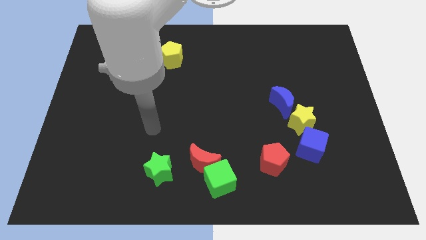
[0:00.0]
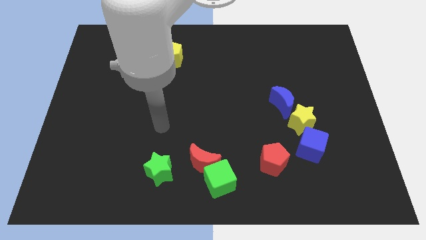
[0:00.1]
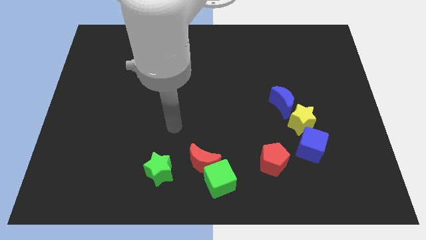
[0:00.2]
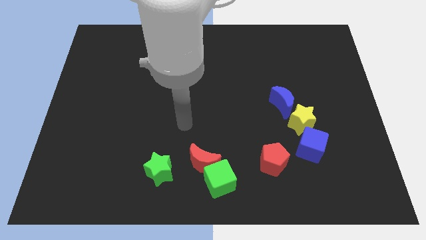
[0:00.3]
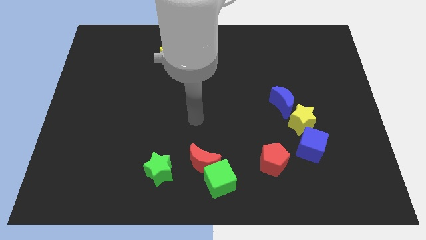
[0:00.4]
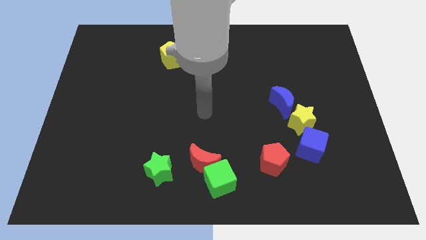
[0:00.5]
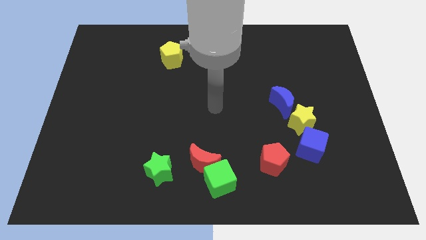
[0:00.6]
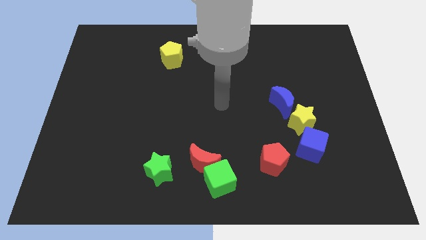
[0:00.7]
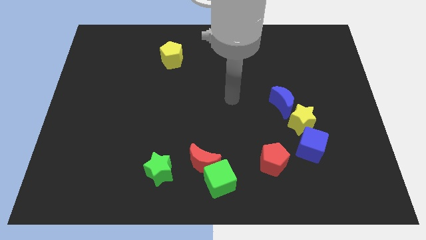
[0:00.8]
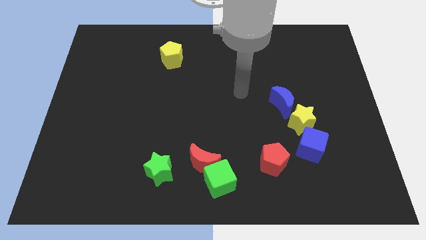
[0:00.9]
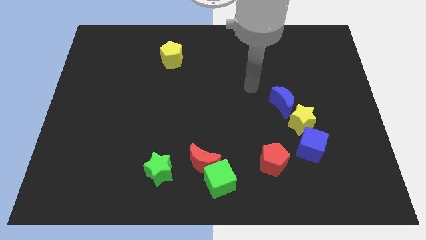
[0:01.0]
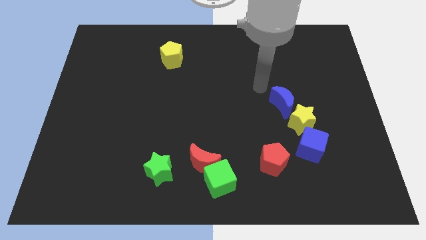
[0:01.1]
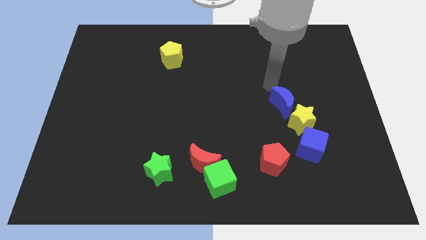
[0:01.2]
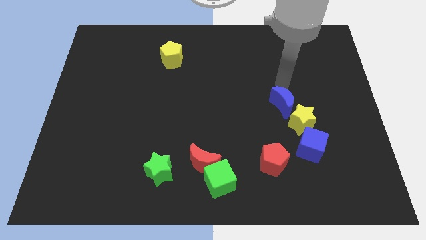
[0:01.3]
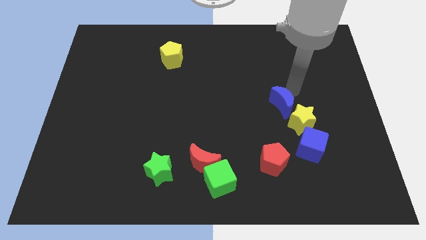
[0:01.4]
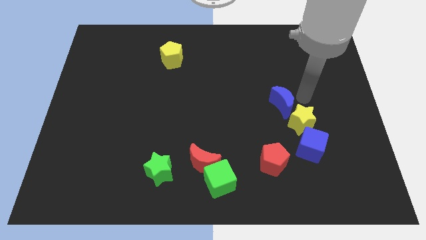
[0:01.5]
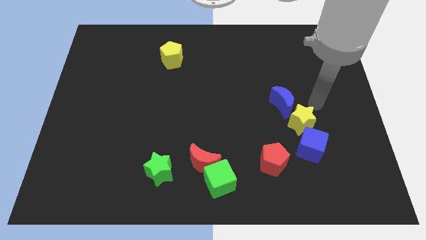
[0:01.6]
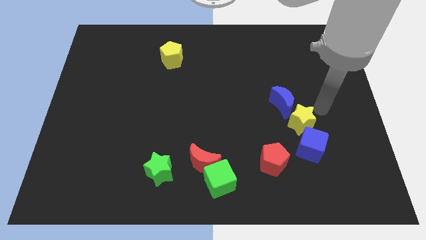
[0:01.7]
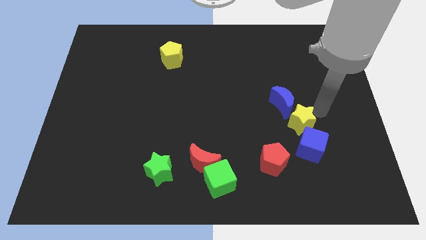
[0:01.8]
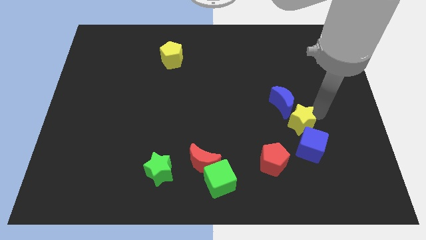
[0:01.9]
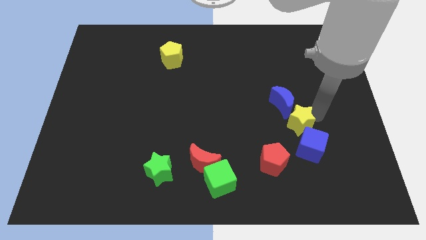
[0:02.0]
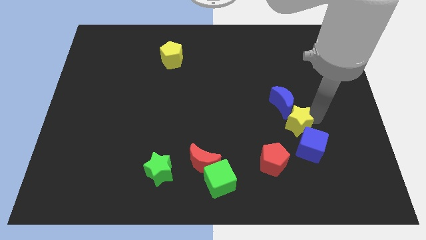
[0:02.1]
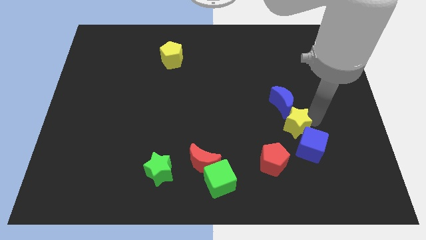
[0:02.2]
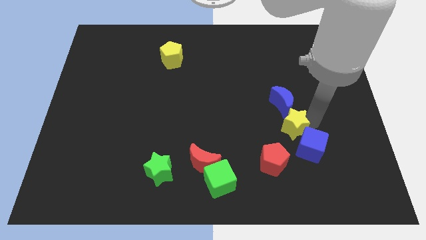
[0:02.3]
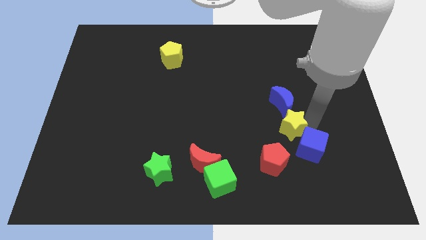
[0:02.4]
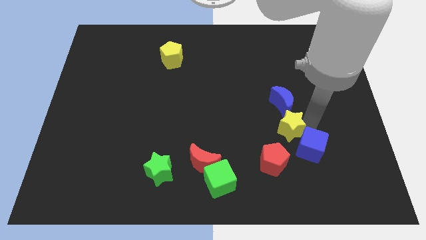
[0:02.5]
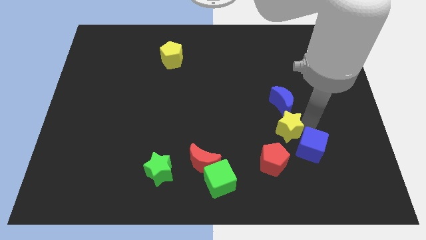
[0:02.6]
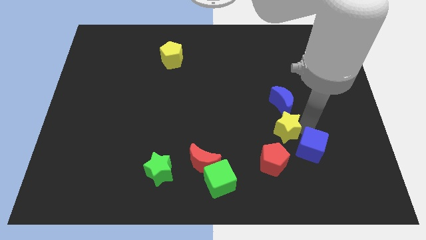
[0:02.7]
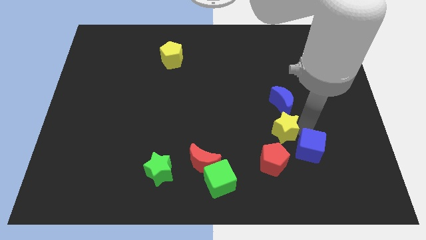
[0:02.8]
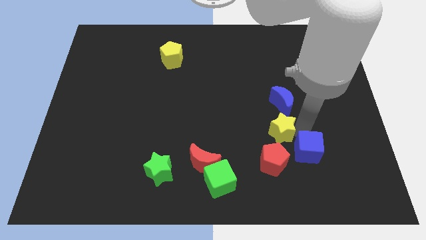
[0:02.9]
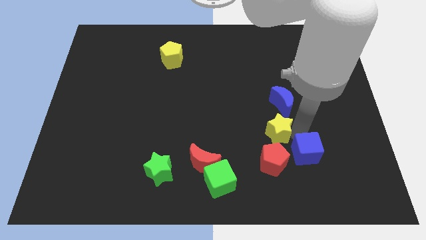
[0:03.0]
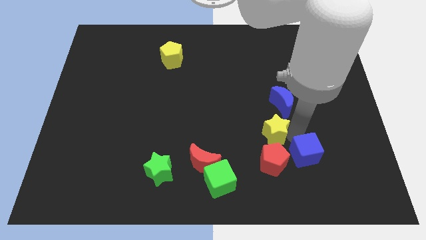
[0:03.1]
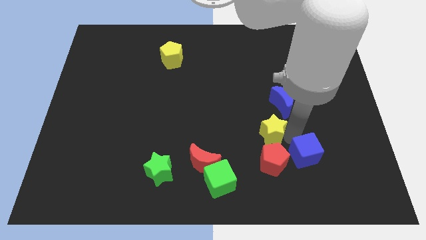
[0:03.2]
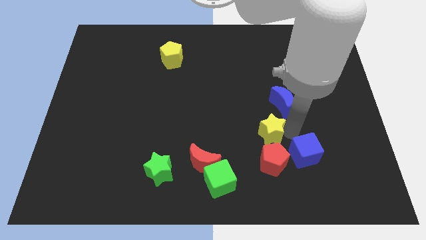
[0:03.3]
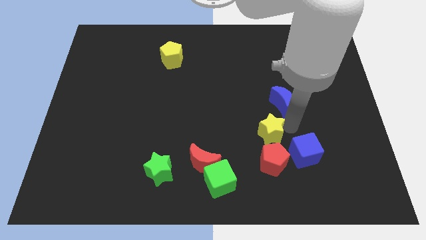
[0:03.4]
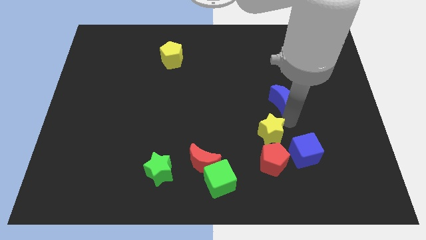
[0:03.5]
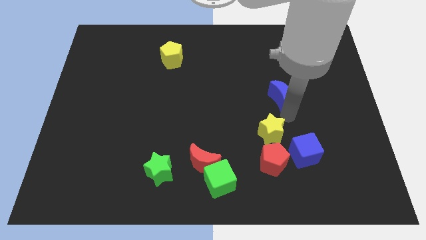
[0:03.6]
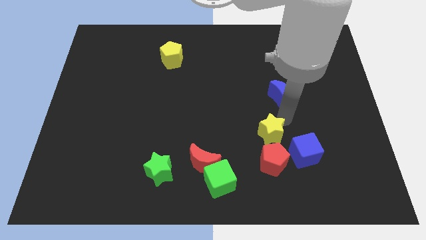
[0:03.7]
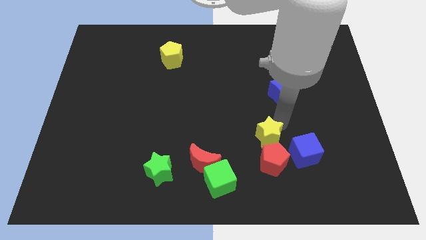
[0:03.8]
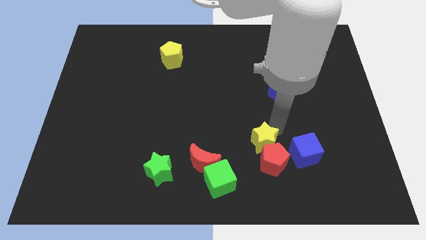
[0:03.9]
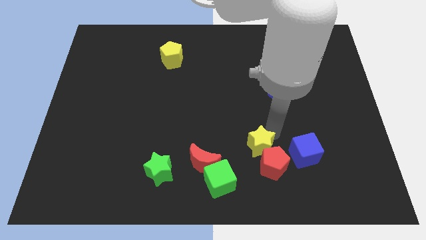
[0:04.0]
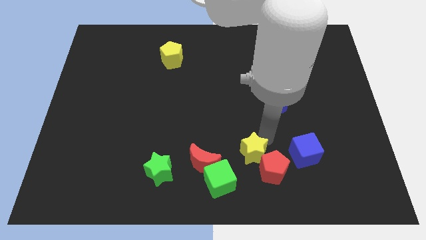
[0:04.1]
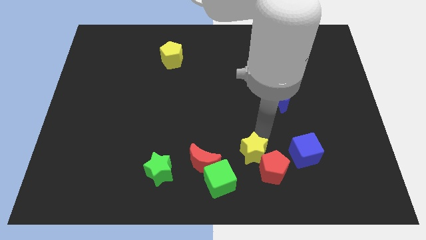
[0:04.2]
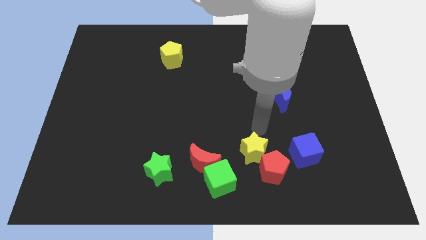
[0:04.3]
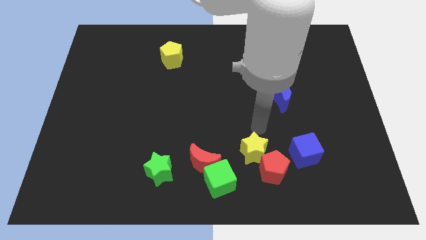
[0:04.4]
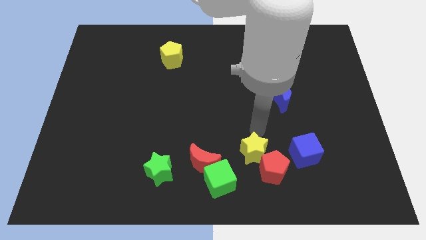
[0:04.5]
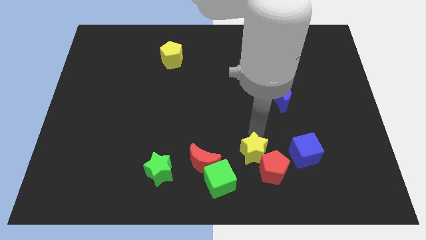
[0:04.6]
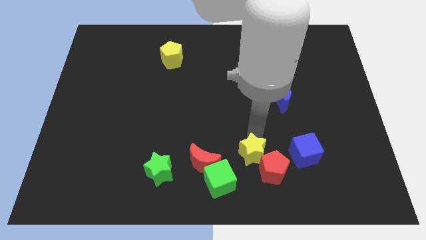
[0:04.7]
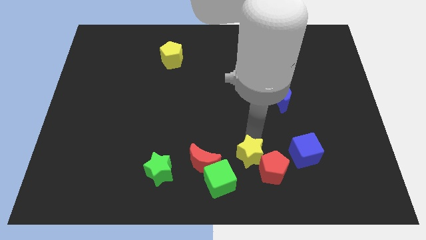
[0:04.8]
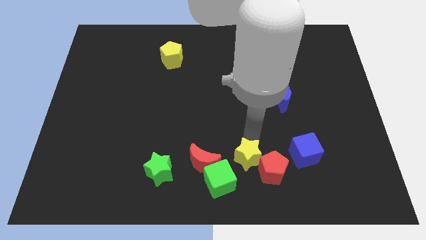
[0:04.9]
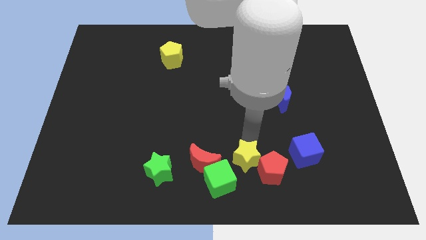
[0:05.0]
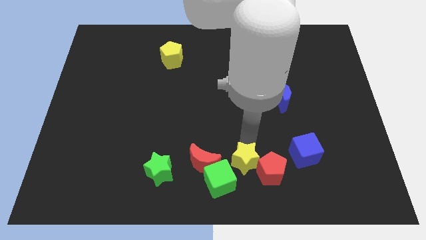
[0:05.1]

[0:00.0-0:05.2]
slide the yellow star to the bottom side

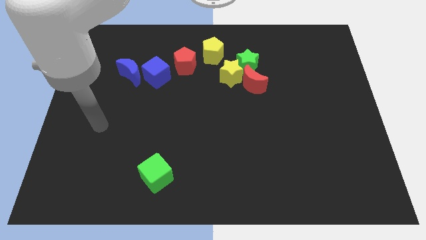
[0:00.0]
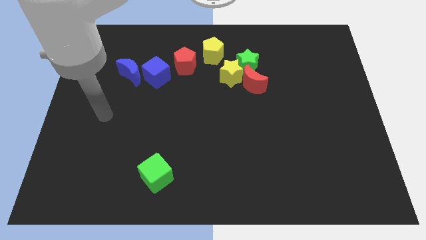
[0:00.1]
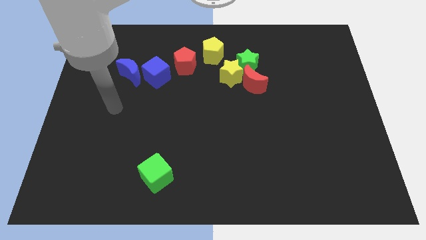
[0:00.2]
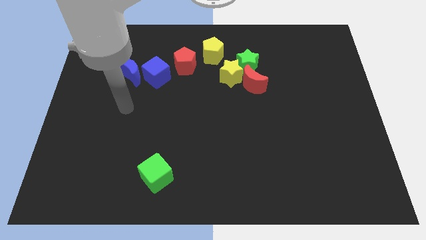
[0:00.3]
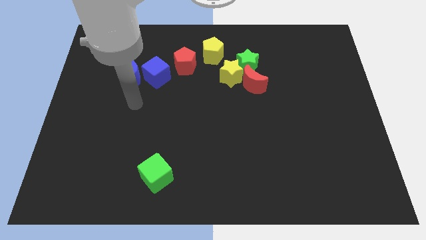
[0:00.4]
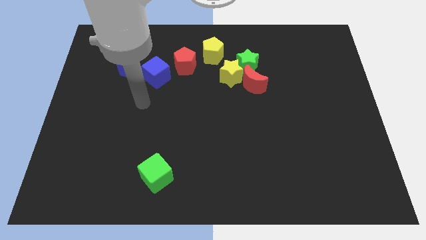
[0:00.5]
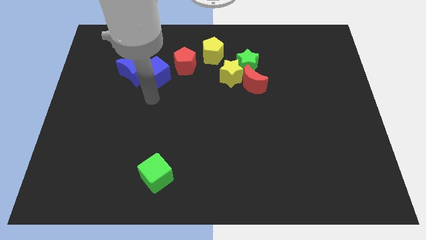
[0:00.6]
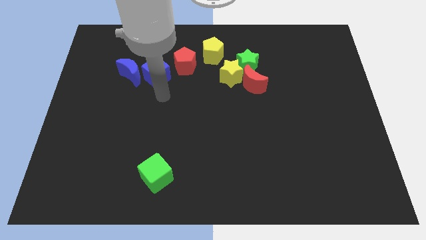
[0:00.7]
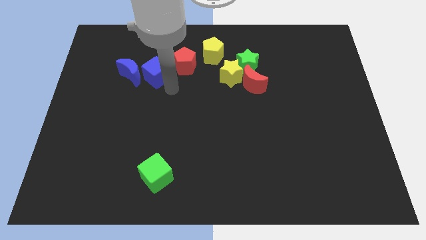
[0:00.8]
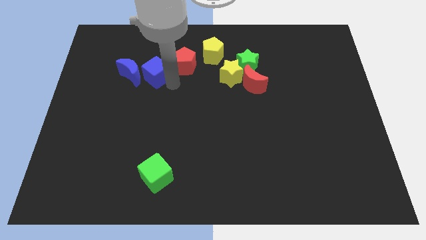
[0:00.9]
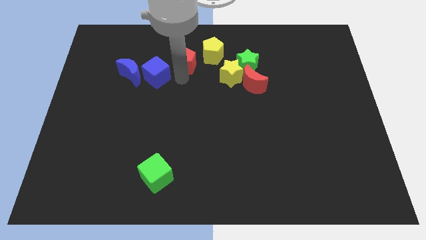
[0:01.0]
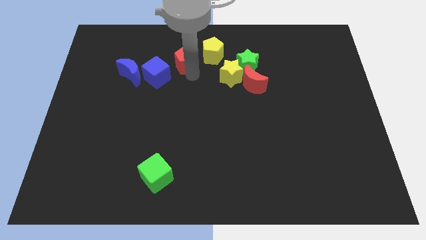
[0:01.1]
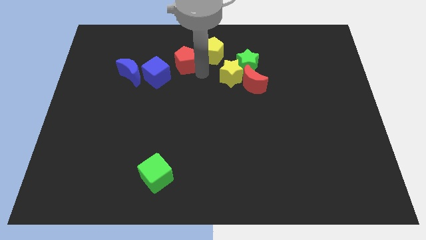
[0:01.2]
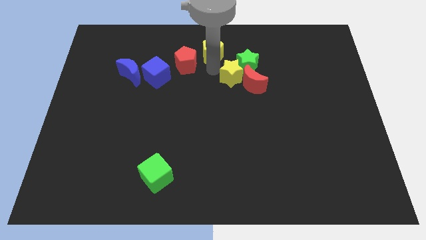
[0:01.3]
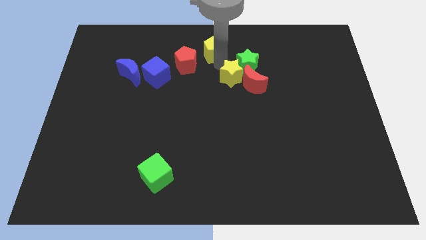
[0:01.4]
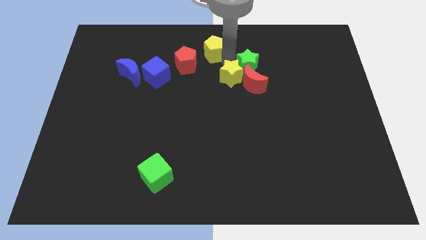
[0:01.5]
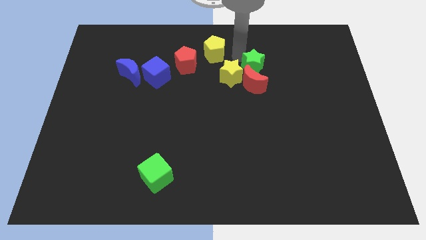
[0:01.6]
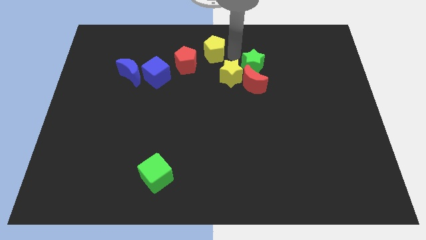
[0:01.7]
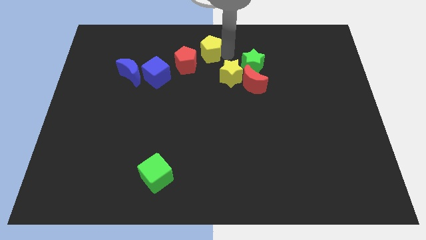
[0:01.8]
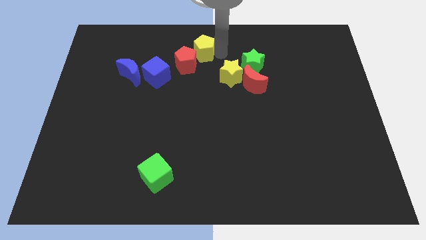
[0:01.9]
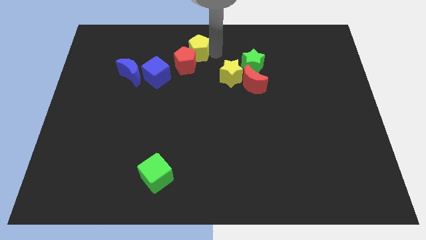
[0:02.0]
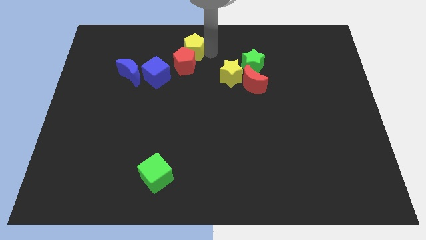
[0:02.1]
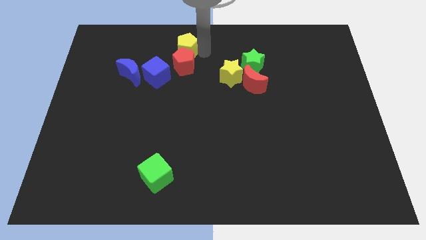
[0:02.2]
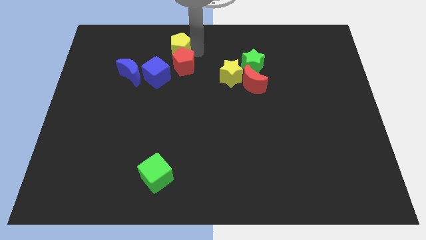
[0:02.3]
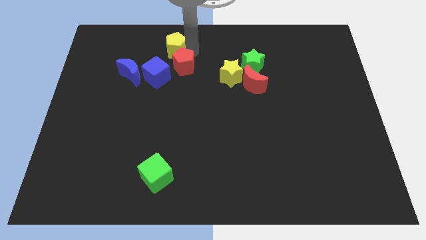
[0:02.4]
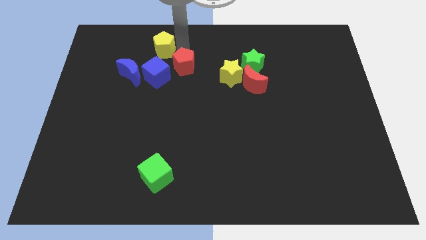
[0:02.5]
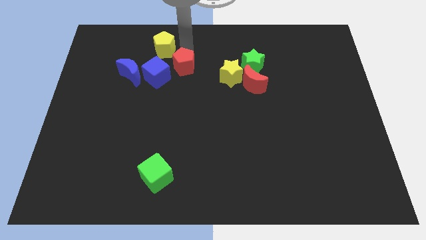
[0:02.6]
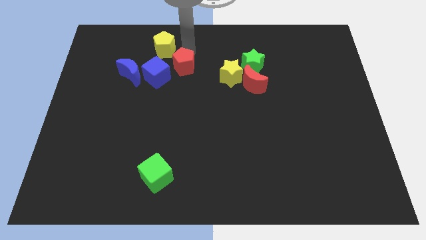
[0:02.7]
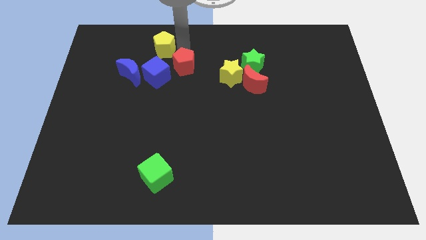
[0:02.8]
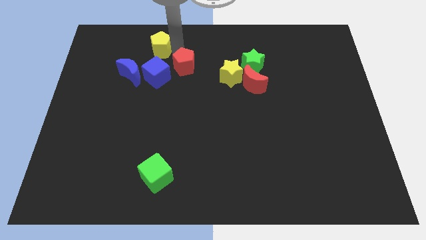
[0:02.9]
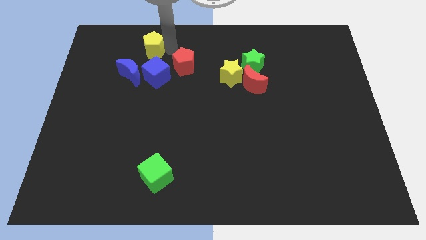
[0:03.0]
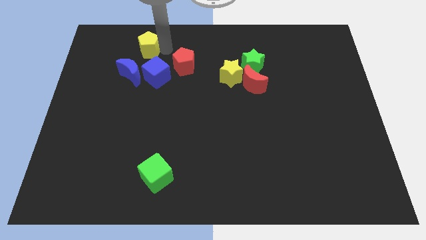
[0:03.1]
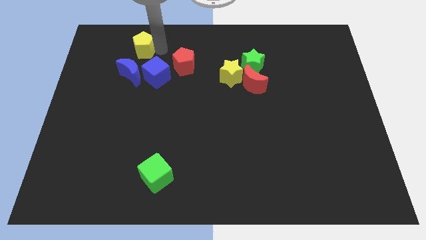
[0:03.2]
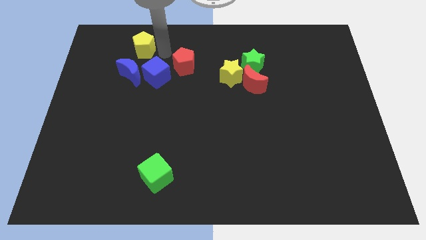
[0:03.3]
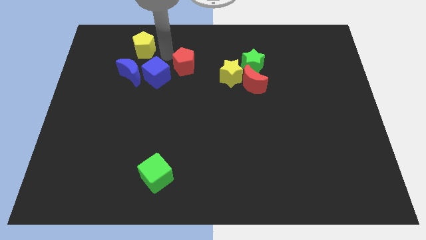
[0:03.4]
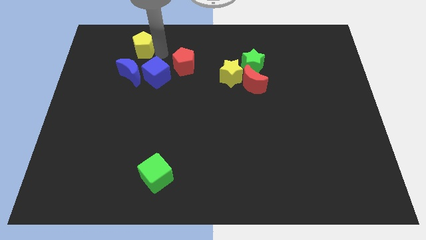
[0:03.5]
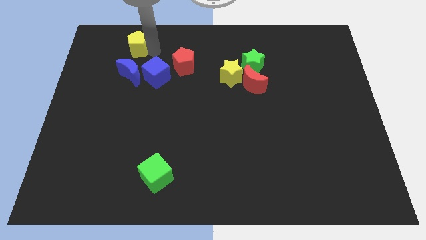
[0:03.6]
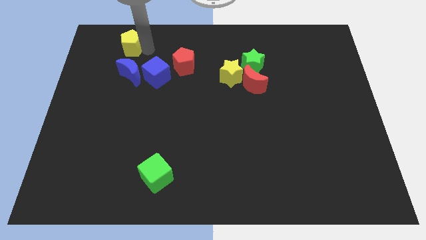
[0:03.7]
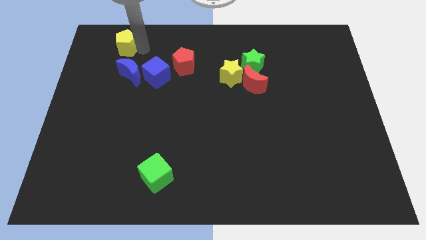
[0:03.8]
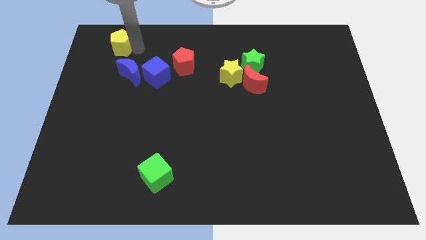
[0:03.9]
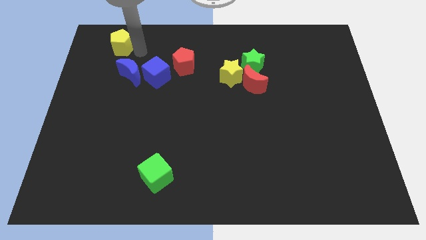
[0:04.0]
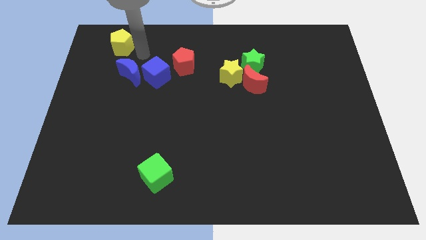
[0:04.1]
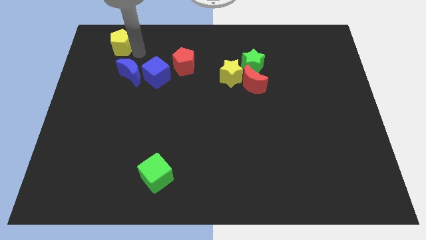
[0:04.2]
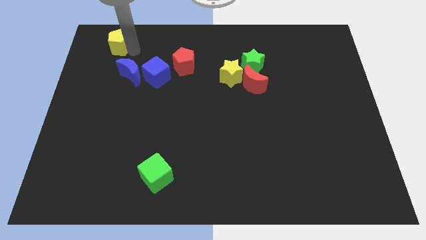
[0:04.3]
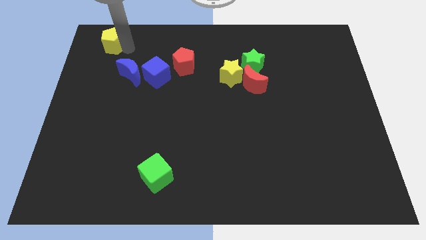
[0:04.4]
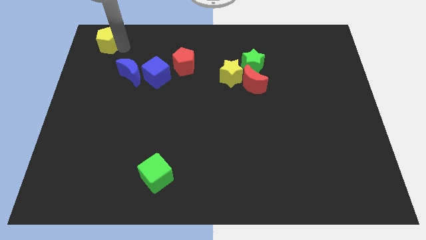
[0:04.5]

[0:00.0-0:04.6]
slide the yellow pentagon to the top left
